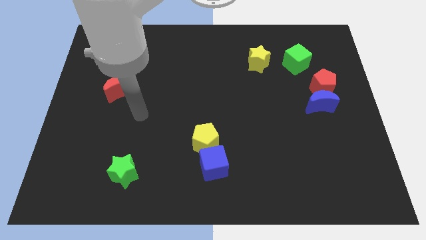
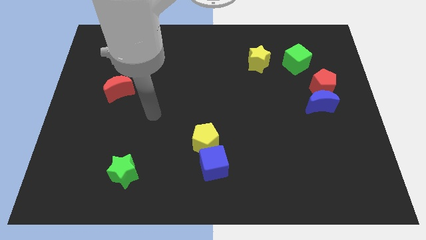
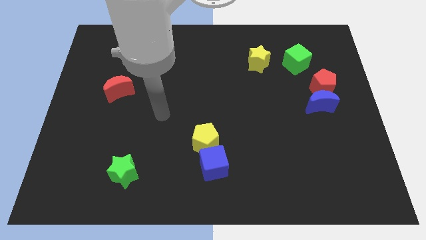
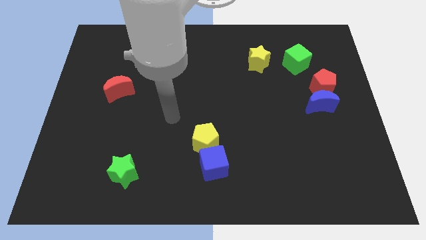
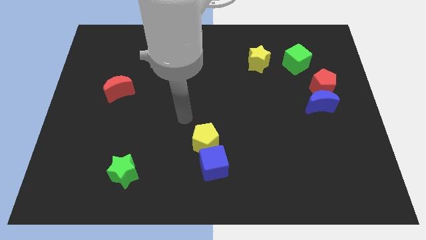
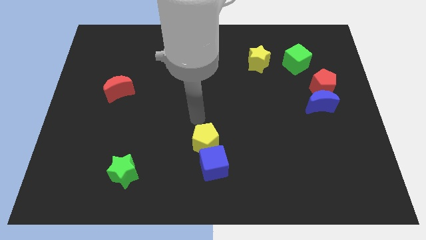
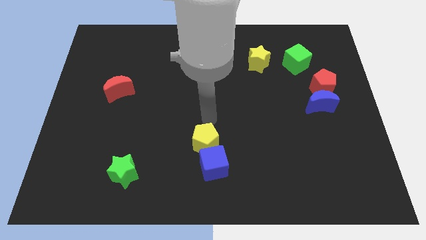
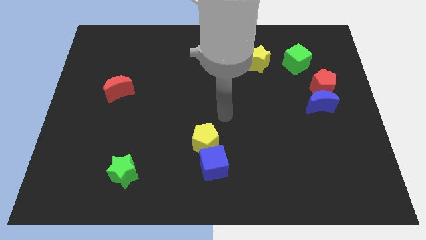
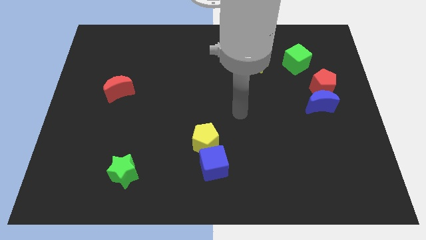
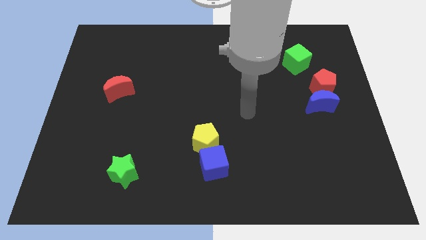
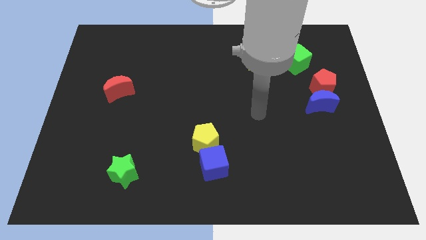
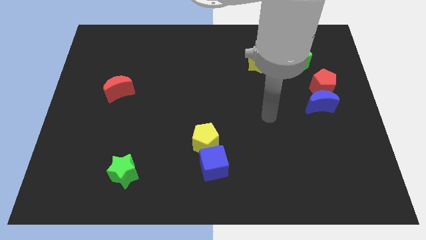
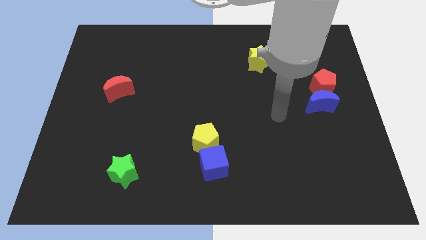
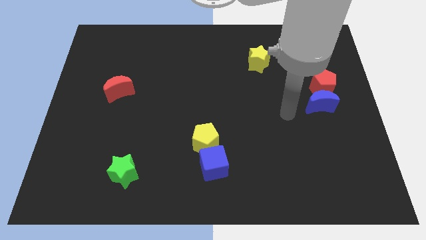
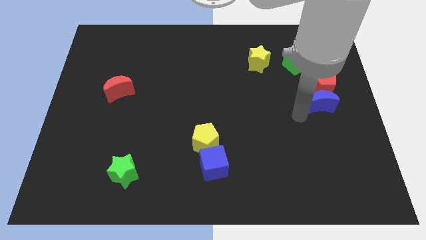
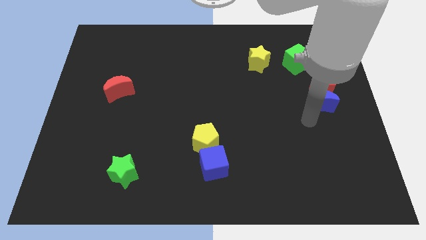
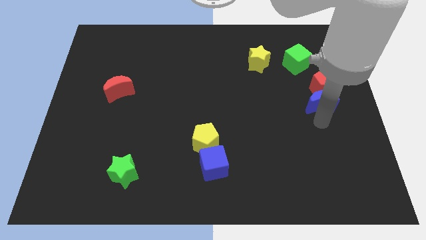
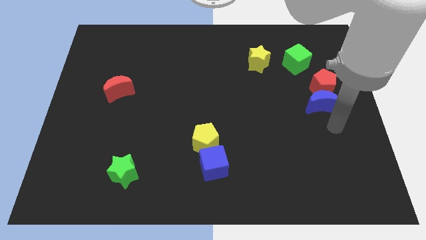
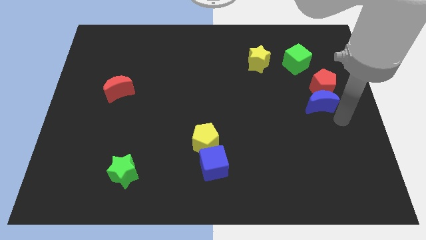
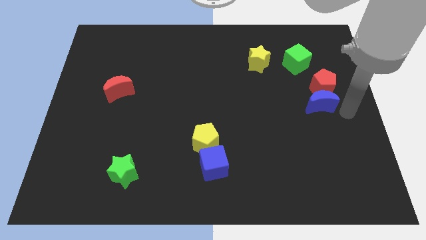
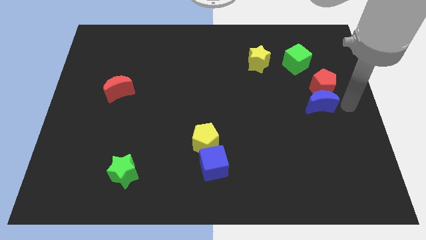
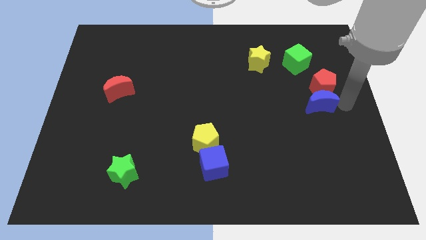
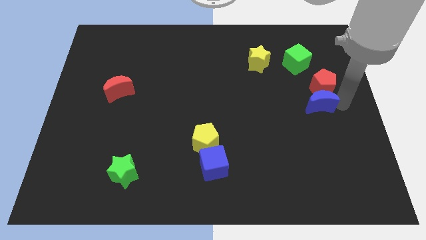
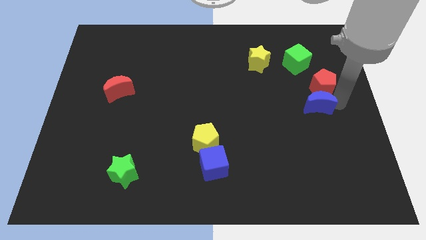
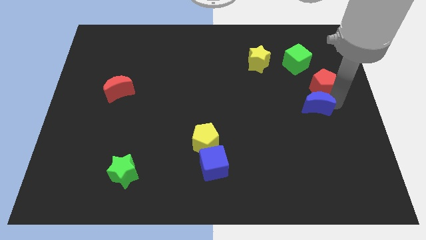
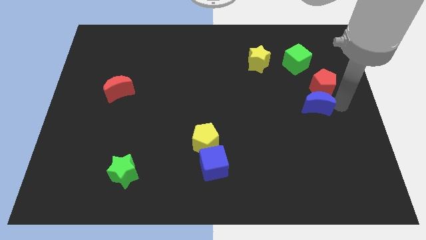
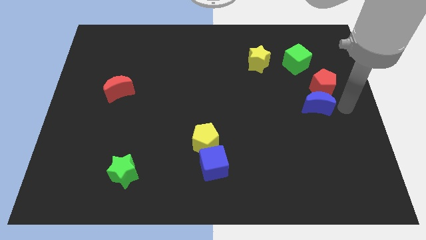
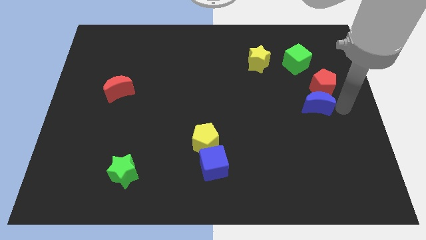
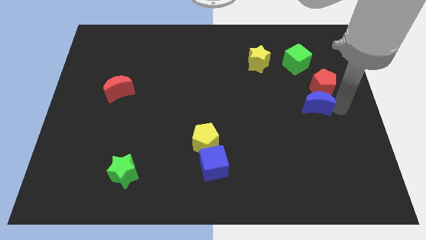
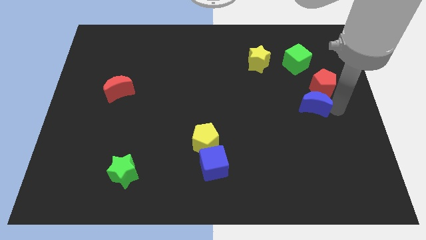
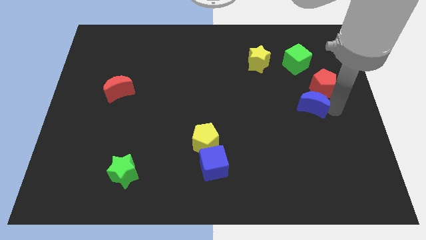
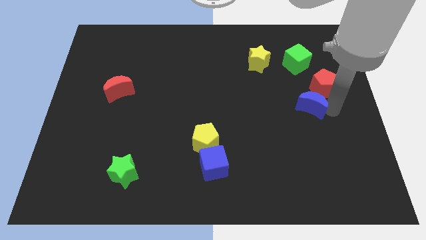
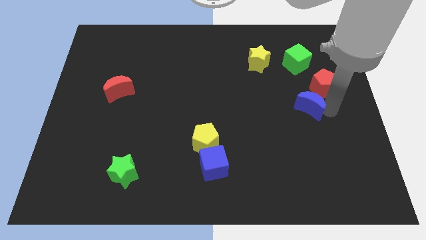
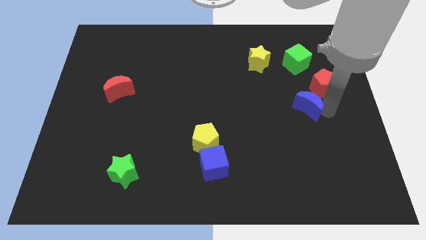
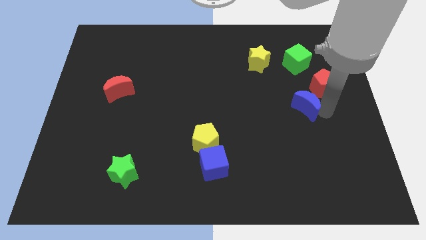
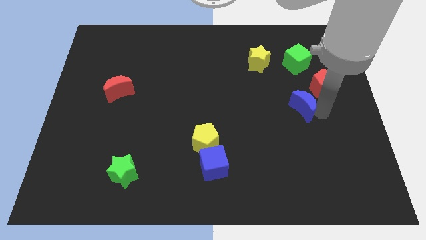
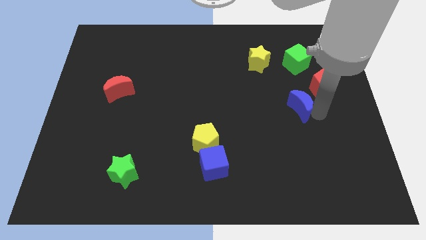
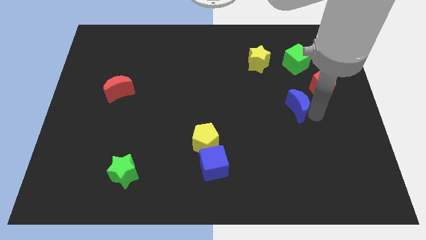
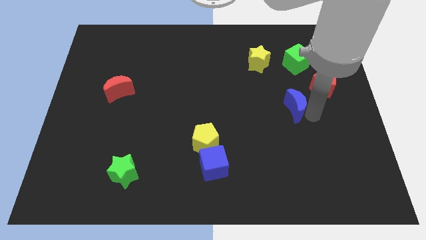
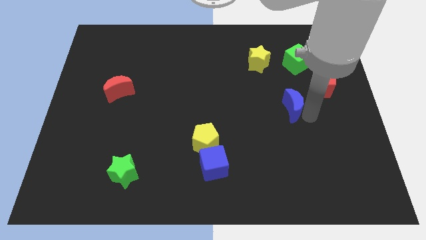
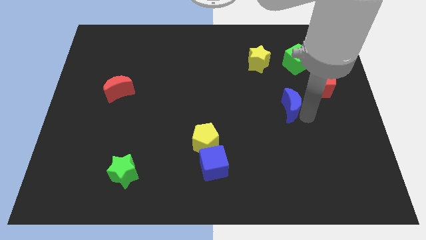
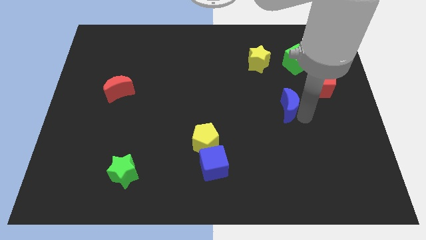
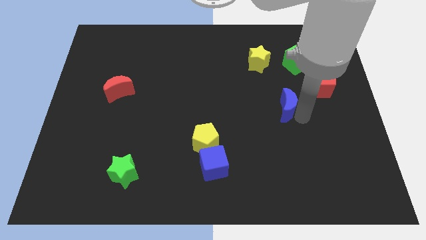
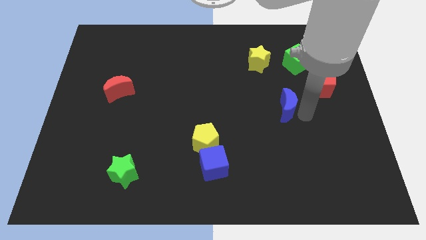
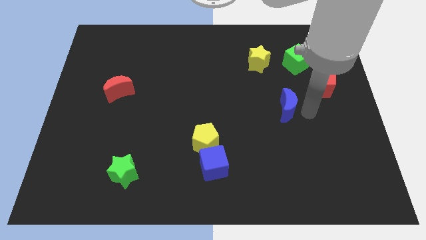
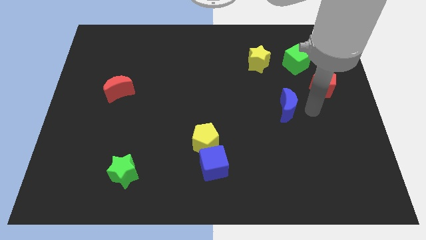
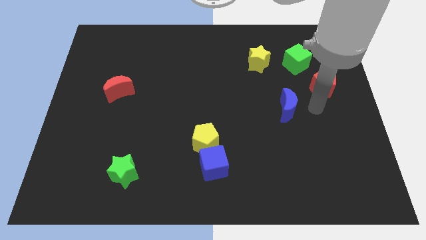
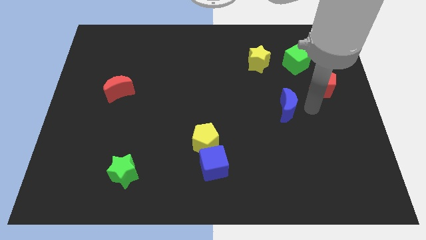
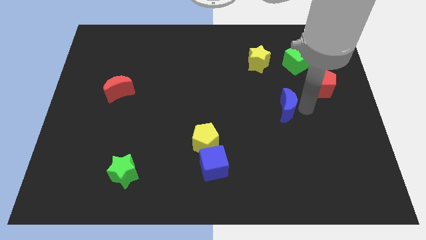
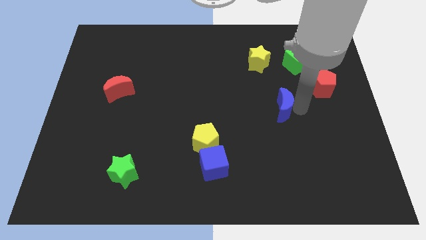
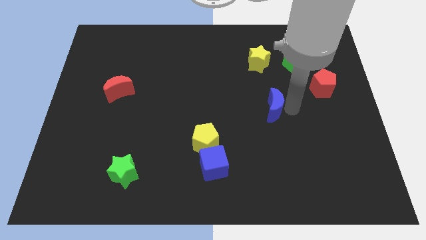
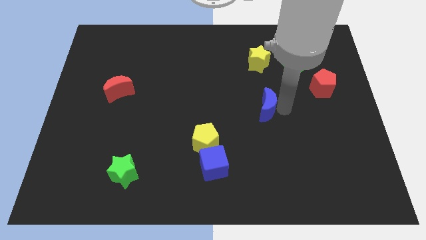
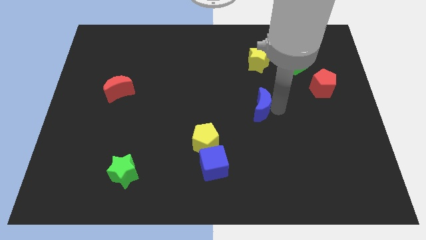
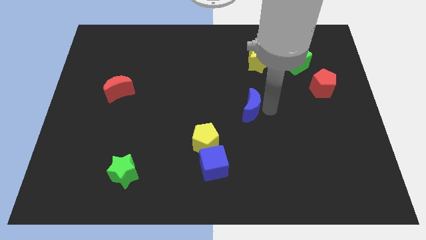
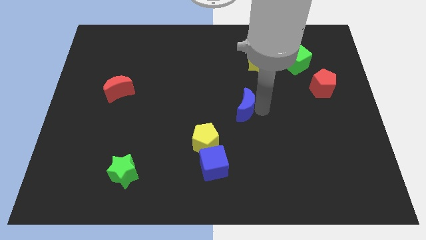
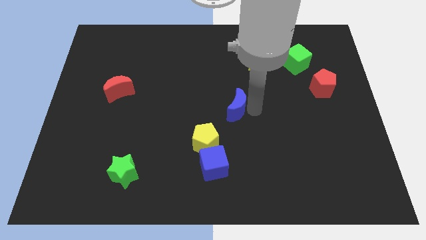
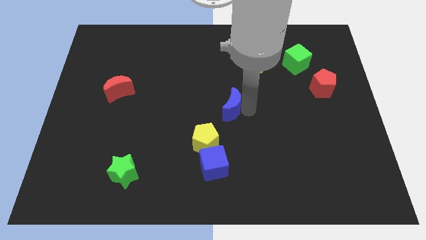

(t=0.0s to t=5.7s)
move the blue moon left

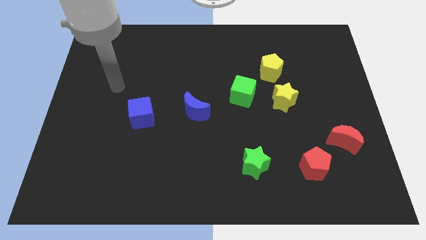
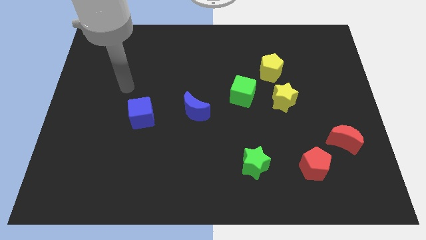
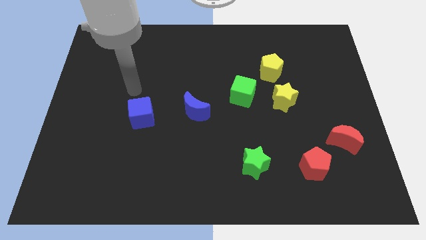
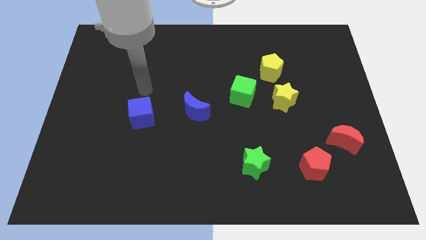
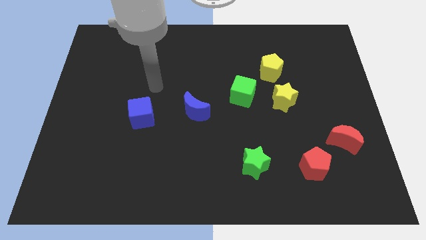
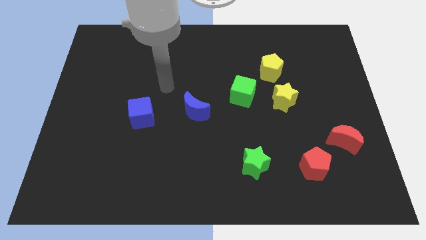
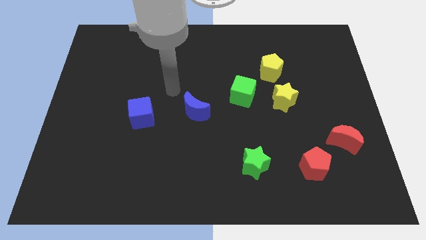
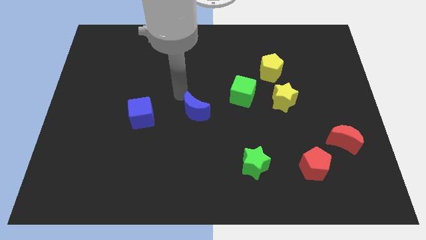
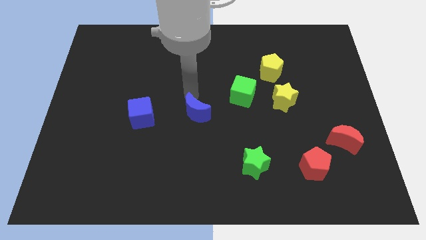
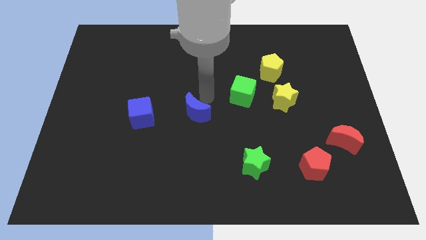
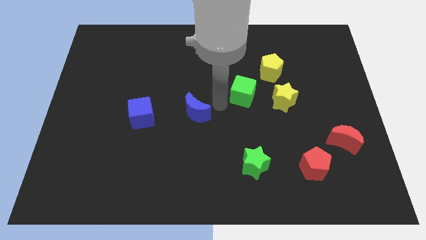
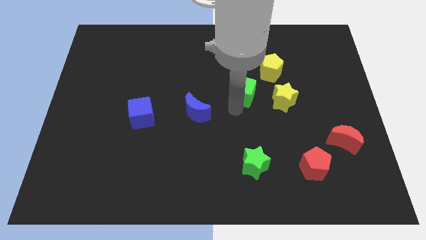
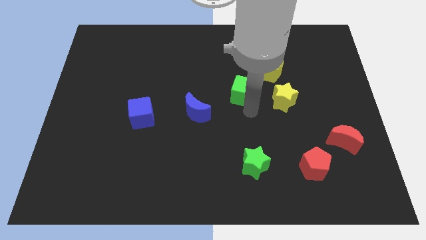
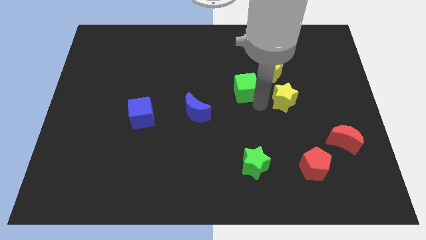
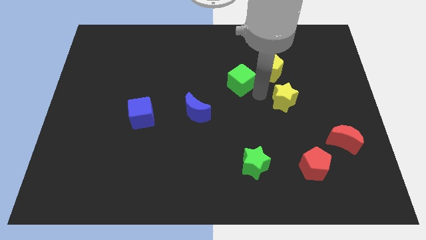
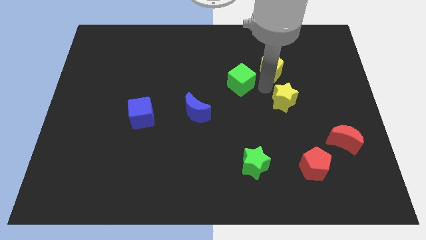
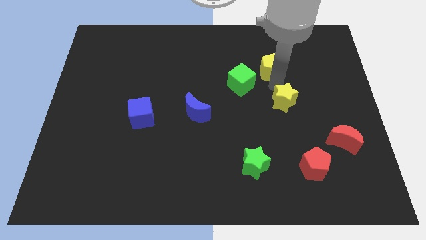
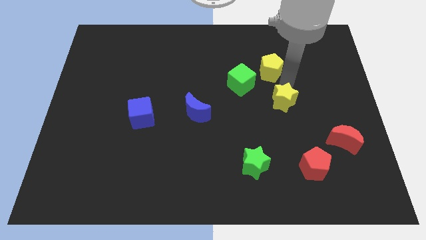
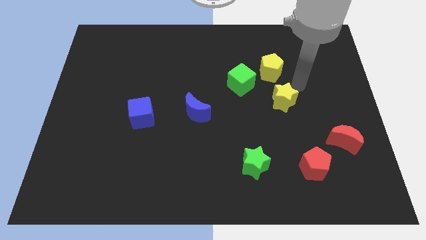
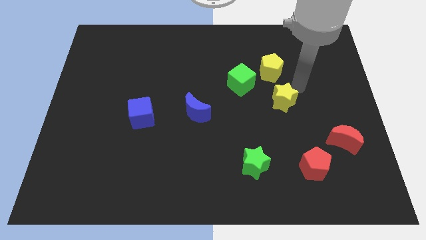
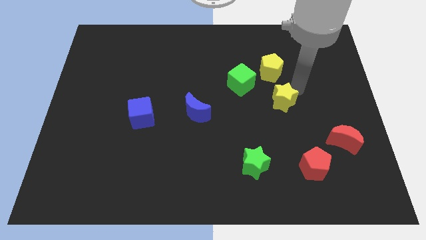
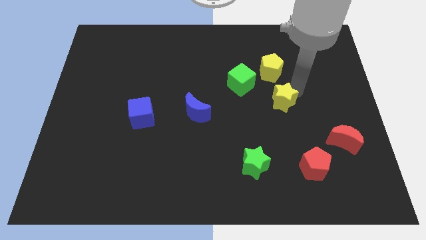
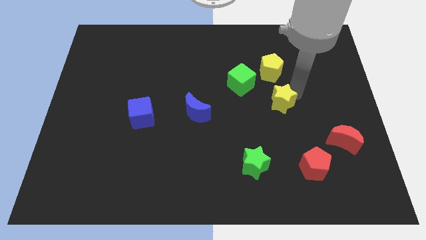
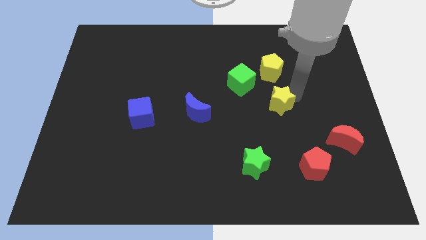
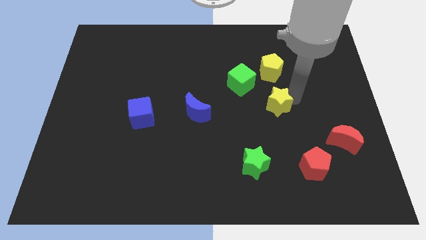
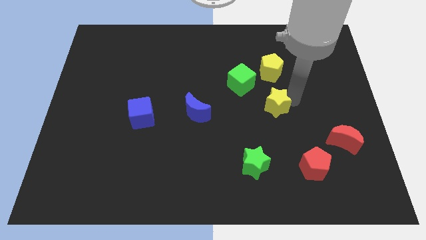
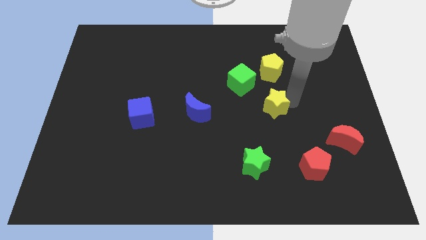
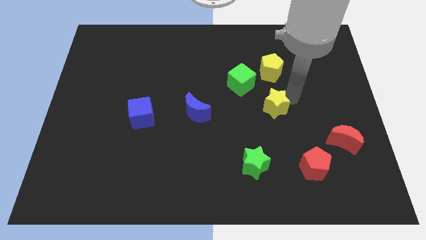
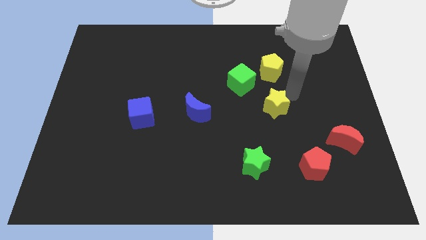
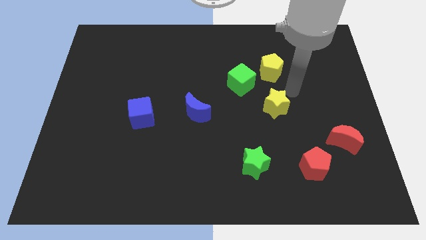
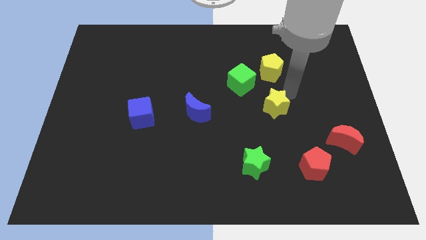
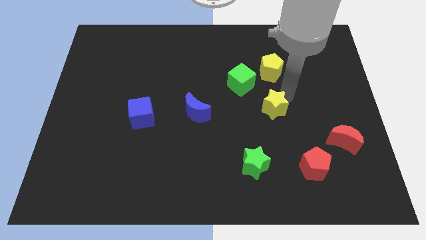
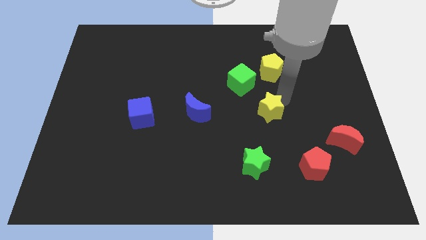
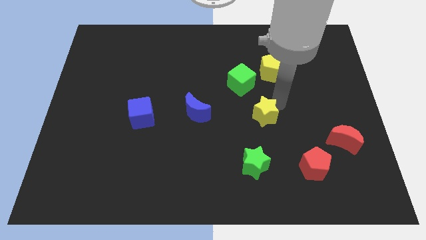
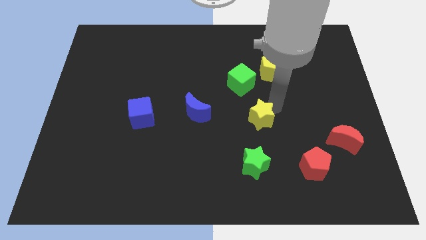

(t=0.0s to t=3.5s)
move the yellow star downwards and left a little
